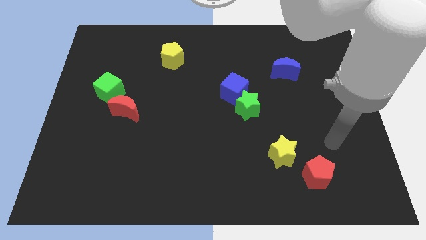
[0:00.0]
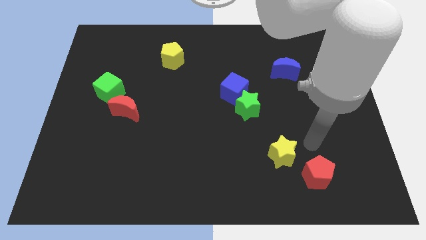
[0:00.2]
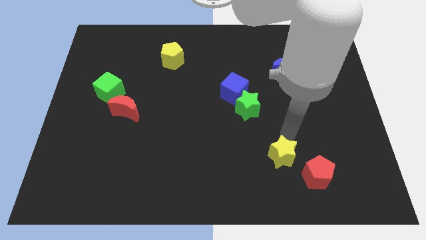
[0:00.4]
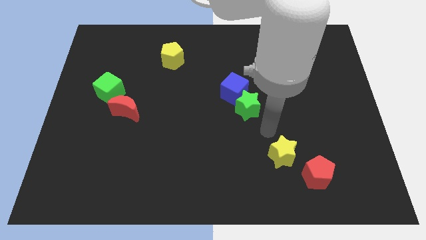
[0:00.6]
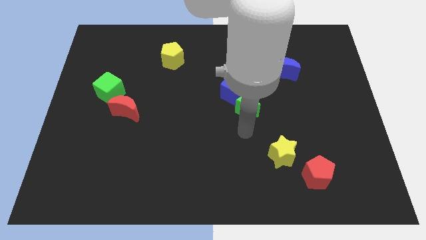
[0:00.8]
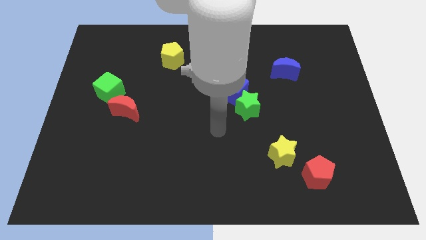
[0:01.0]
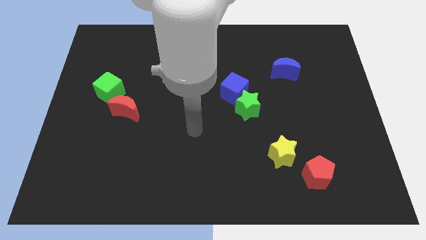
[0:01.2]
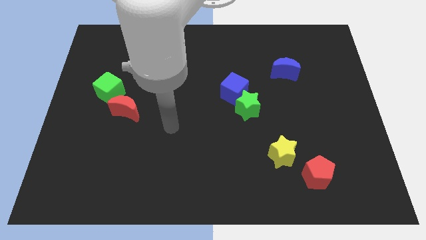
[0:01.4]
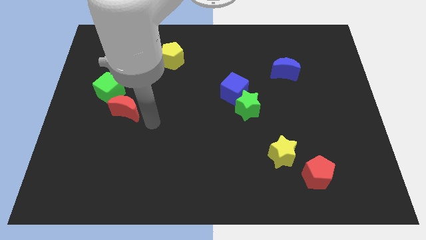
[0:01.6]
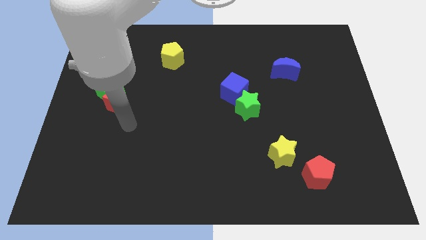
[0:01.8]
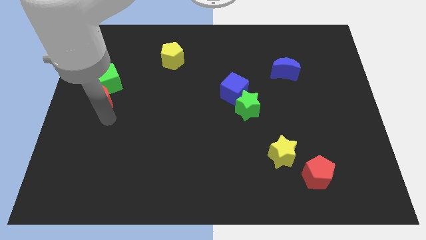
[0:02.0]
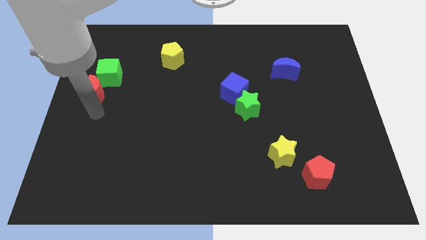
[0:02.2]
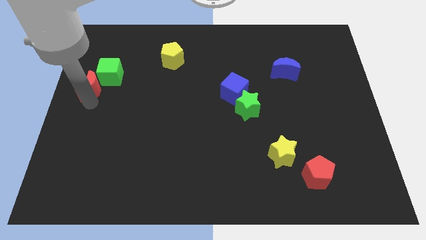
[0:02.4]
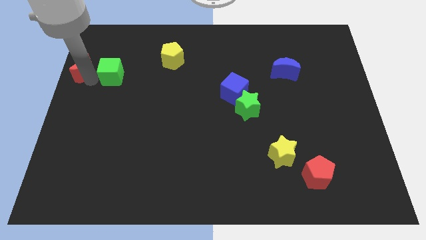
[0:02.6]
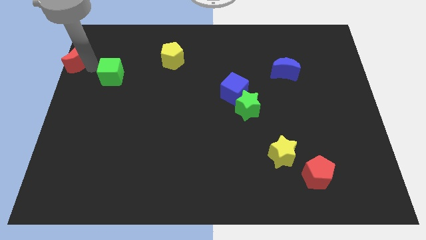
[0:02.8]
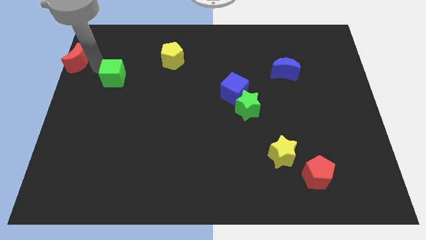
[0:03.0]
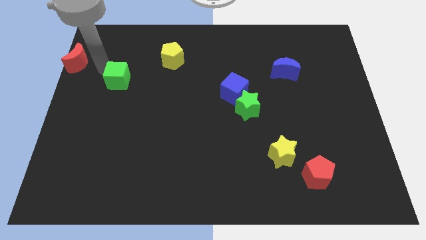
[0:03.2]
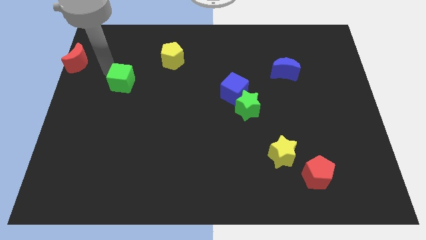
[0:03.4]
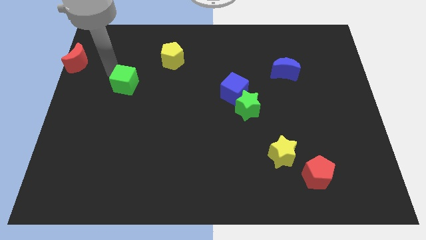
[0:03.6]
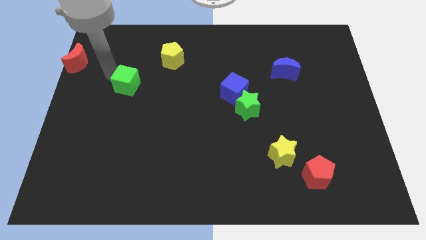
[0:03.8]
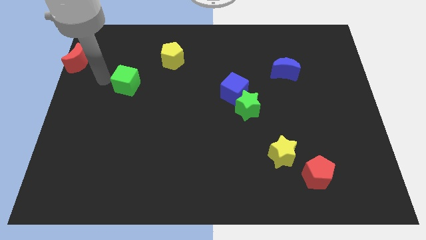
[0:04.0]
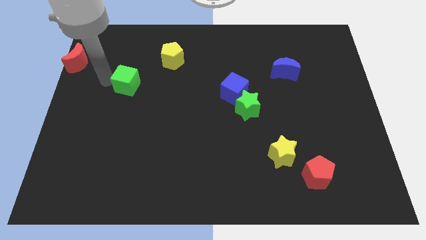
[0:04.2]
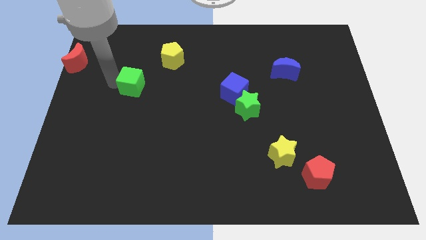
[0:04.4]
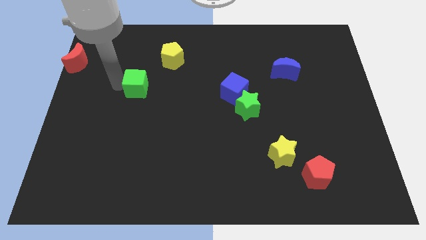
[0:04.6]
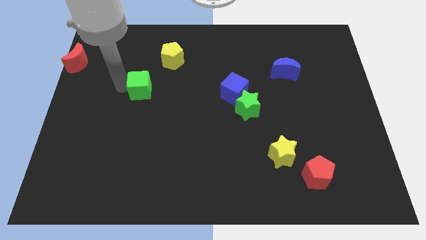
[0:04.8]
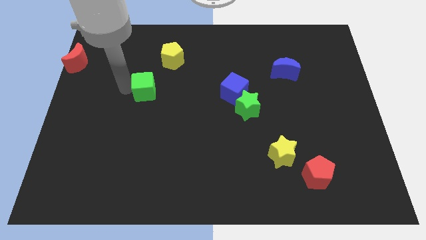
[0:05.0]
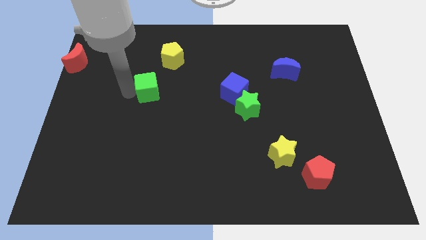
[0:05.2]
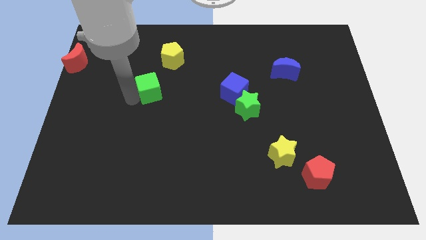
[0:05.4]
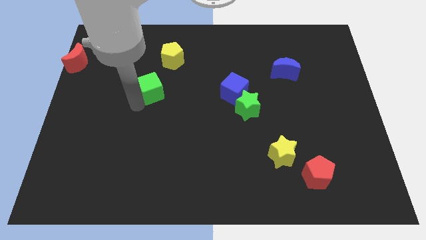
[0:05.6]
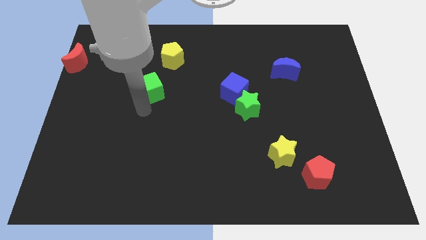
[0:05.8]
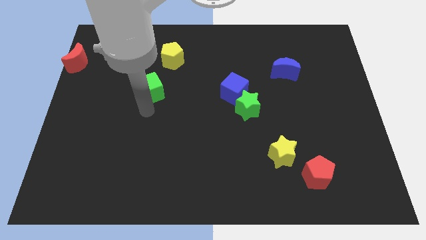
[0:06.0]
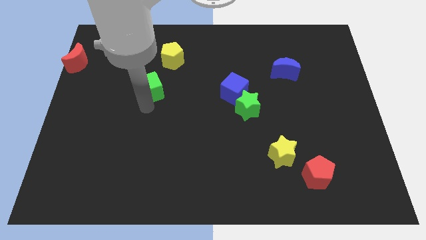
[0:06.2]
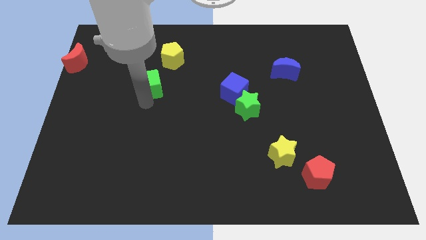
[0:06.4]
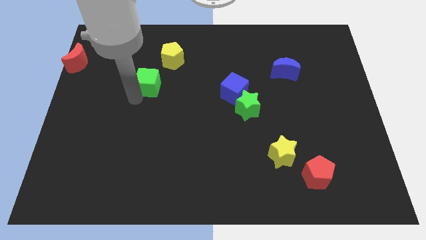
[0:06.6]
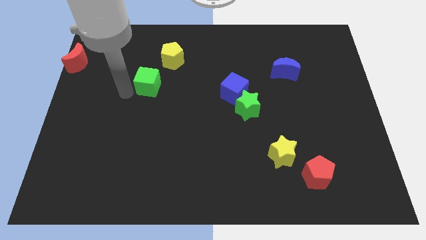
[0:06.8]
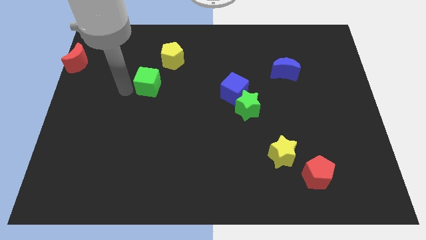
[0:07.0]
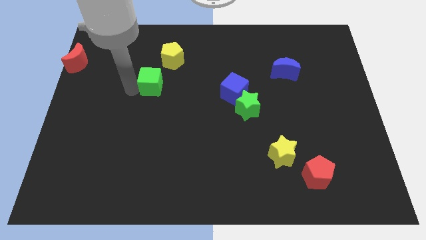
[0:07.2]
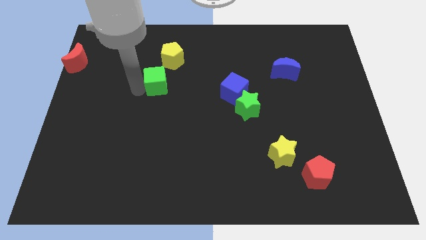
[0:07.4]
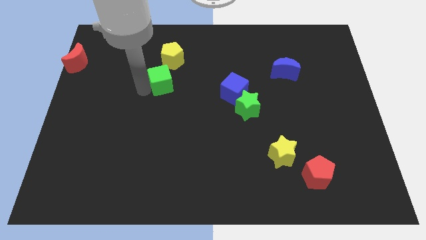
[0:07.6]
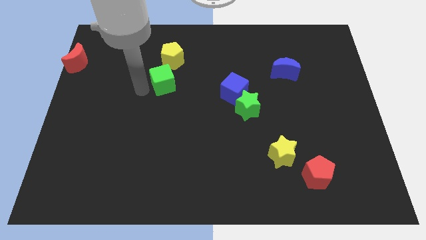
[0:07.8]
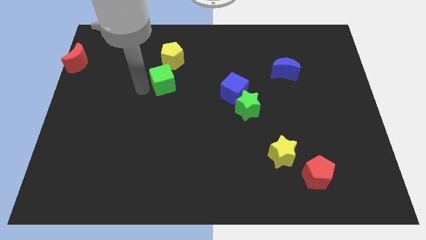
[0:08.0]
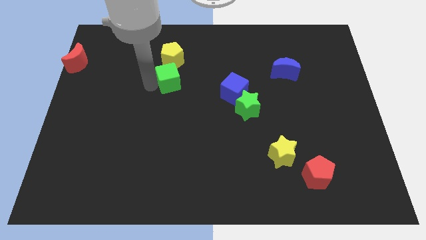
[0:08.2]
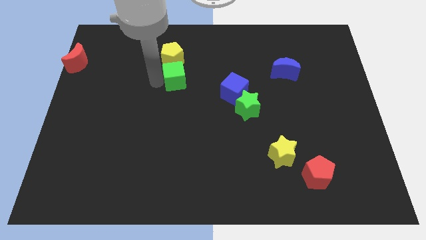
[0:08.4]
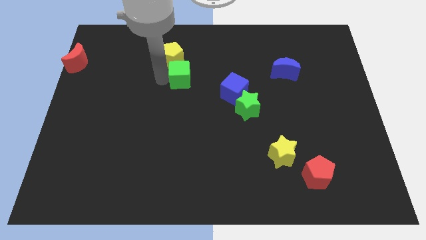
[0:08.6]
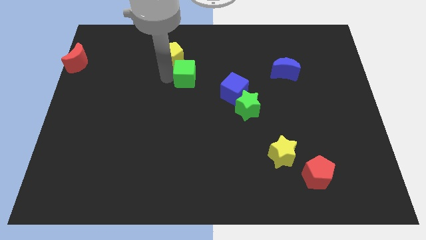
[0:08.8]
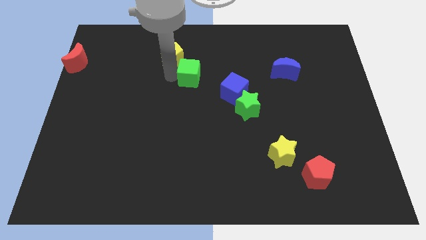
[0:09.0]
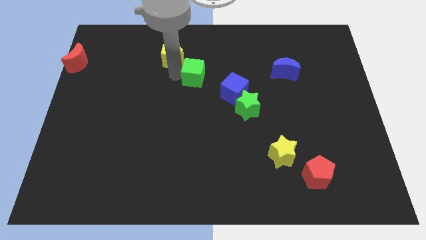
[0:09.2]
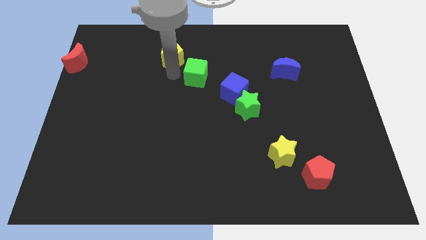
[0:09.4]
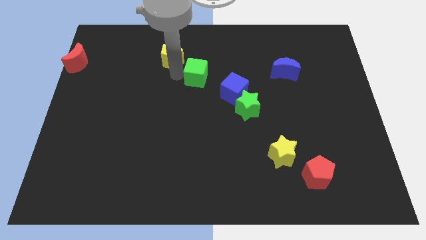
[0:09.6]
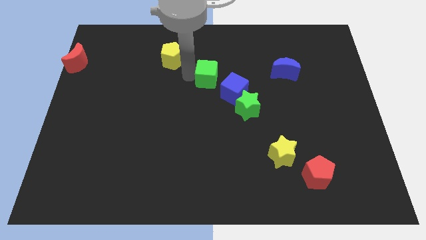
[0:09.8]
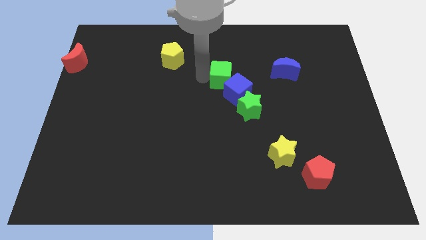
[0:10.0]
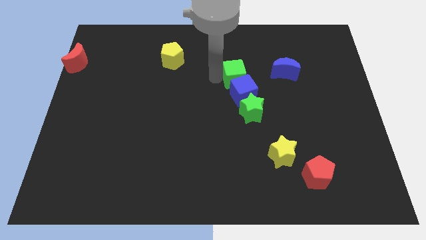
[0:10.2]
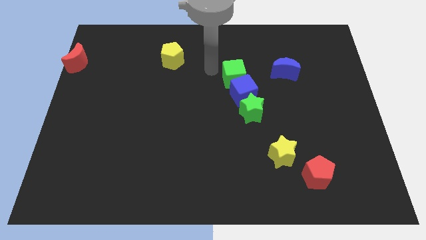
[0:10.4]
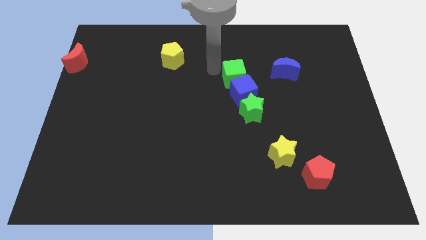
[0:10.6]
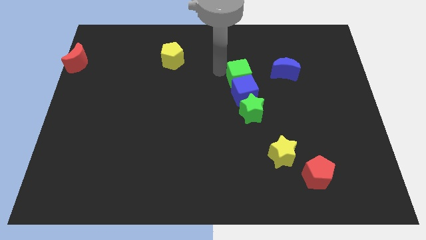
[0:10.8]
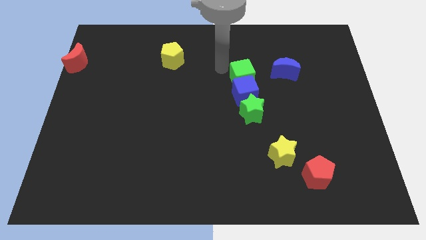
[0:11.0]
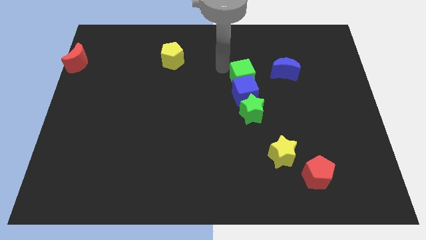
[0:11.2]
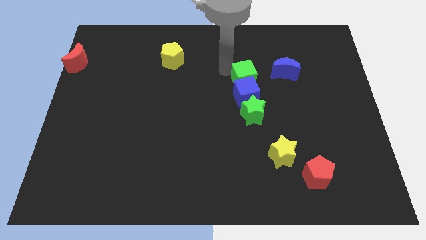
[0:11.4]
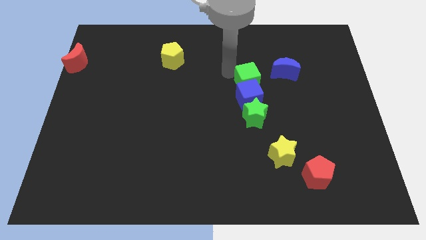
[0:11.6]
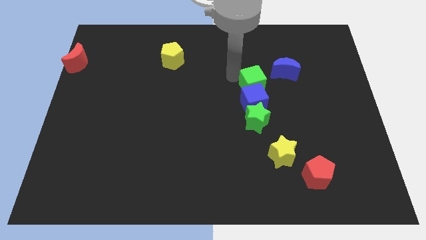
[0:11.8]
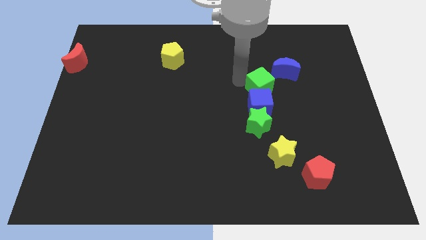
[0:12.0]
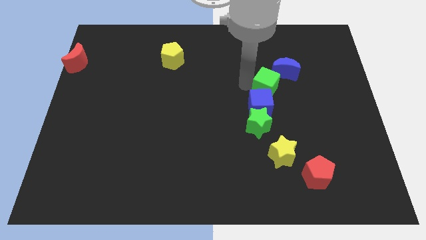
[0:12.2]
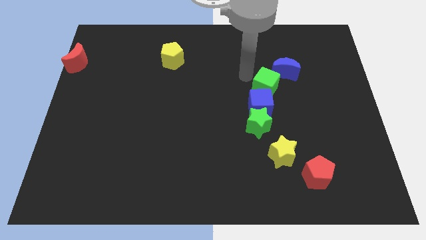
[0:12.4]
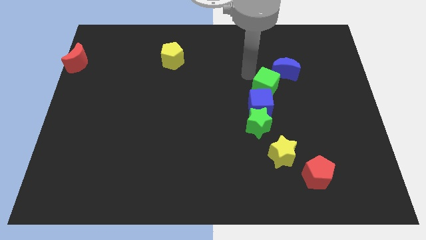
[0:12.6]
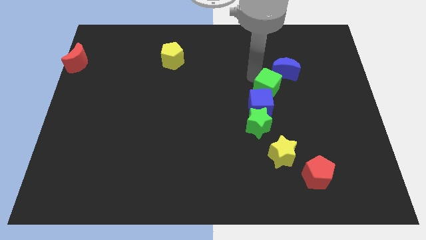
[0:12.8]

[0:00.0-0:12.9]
push the green cube below the blue moon
